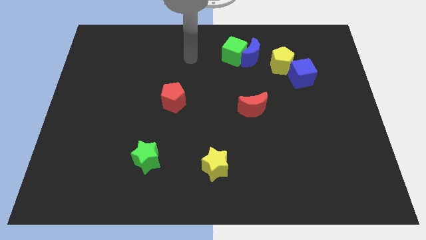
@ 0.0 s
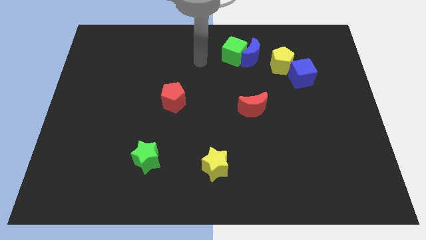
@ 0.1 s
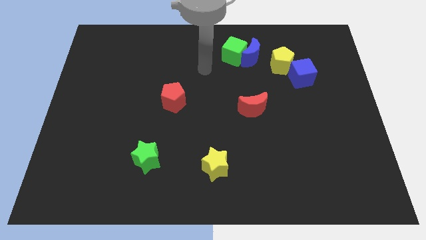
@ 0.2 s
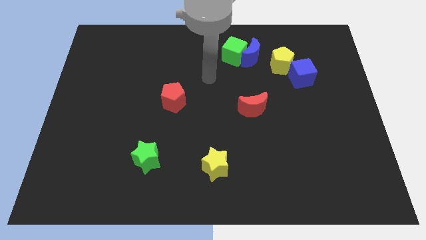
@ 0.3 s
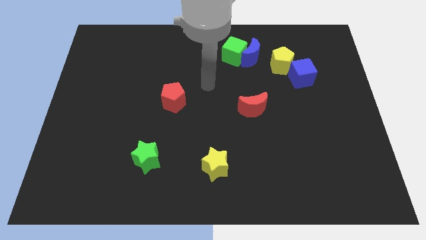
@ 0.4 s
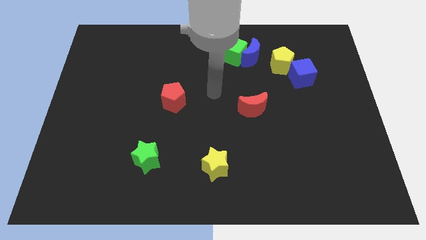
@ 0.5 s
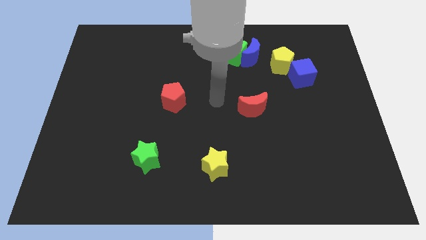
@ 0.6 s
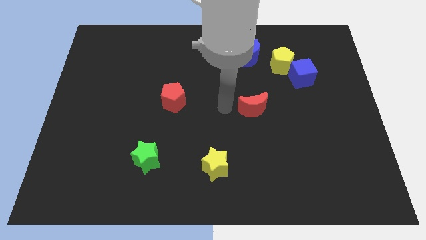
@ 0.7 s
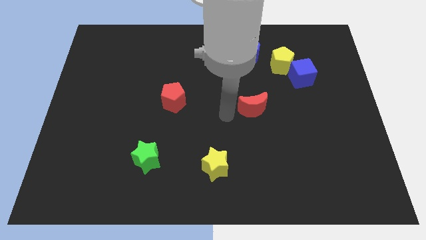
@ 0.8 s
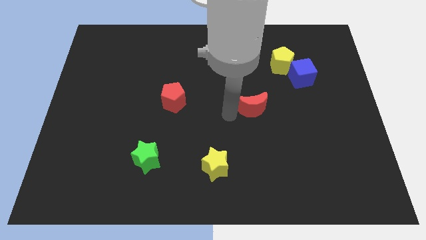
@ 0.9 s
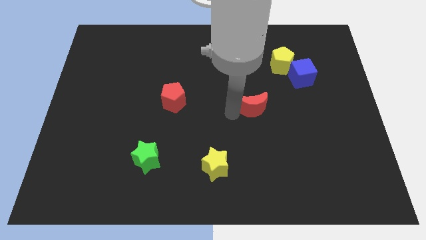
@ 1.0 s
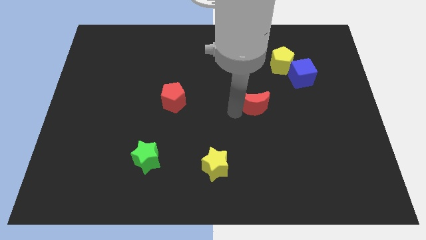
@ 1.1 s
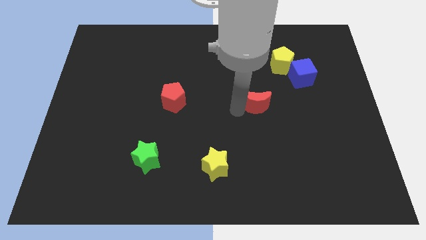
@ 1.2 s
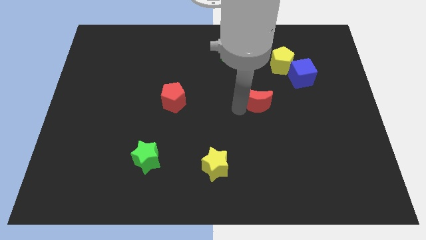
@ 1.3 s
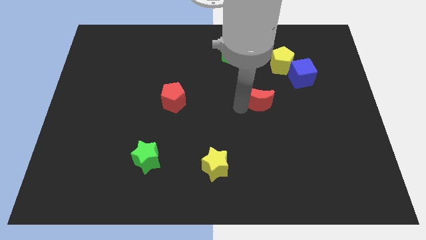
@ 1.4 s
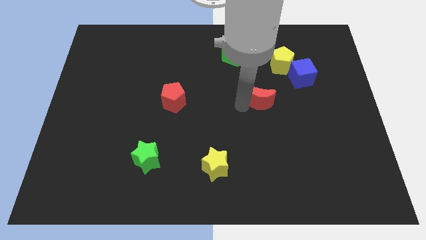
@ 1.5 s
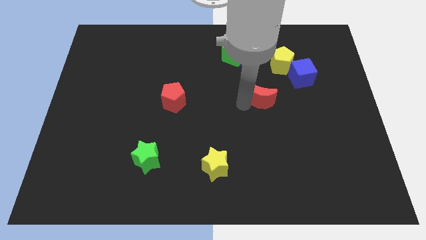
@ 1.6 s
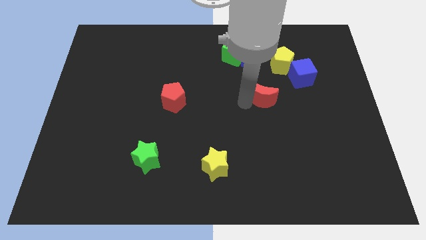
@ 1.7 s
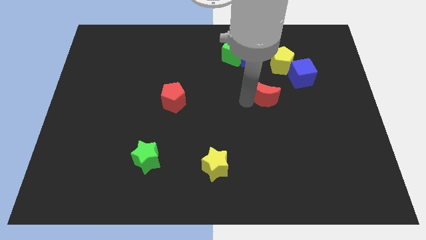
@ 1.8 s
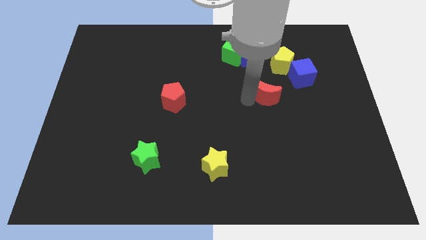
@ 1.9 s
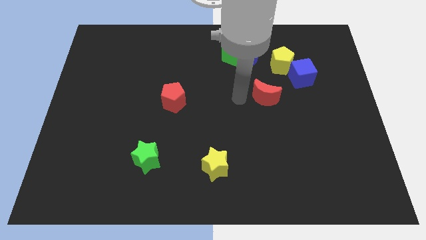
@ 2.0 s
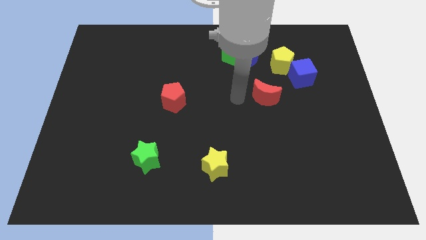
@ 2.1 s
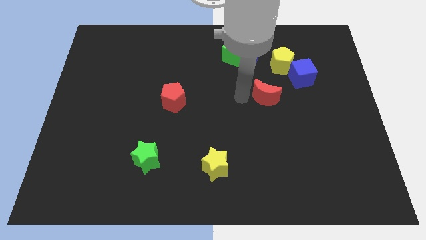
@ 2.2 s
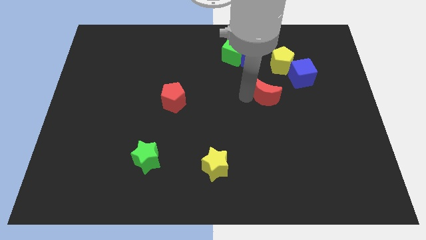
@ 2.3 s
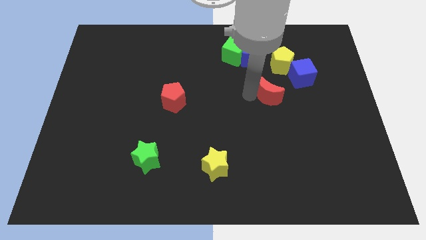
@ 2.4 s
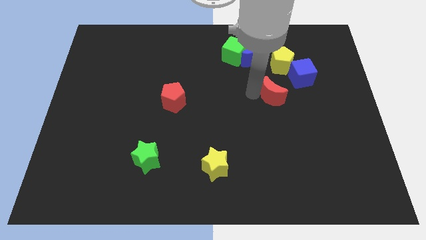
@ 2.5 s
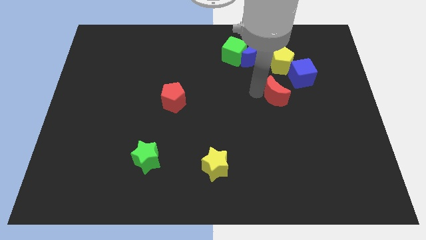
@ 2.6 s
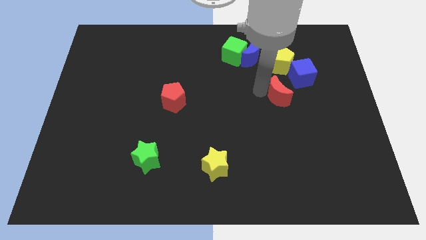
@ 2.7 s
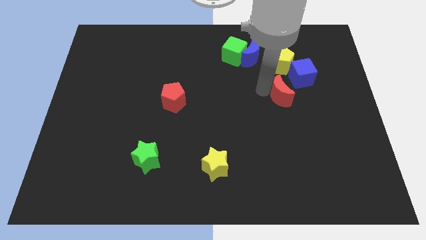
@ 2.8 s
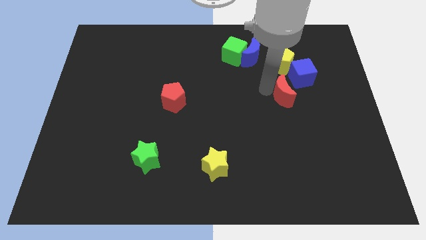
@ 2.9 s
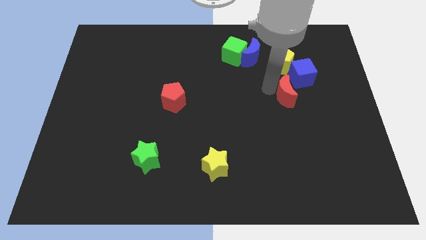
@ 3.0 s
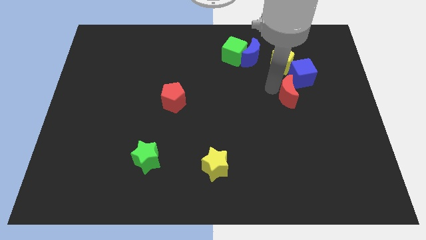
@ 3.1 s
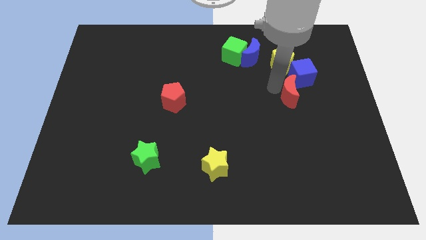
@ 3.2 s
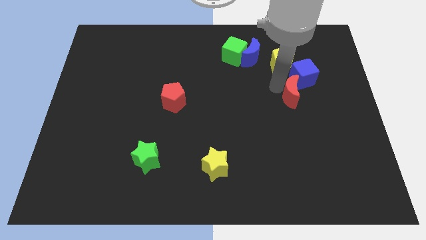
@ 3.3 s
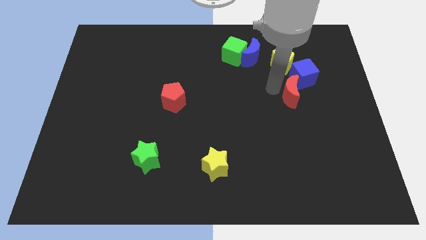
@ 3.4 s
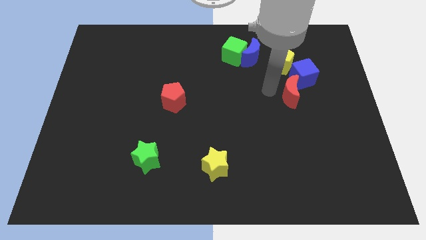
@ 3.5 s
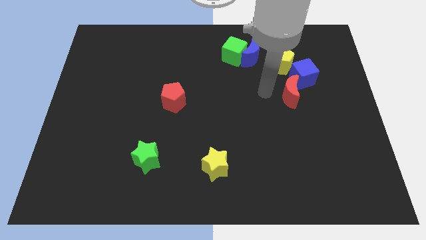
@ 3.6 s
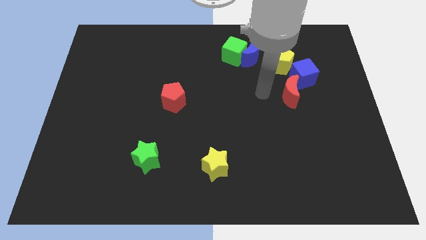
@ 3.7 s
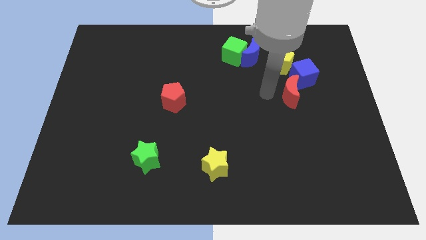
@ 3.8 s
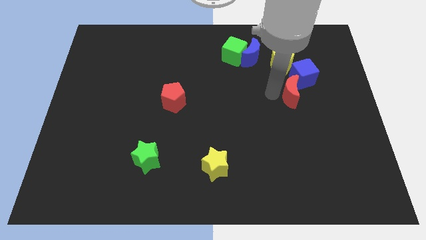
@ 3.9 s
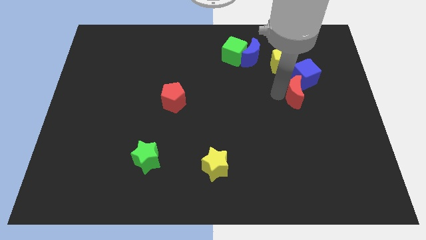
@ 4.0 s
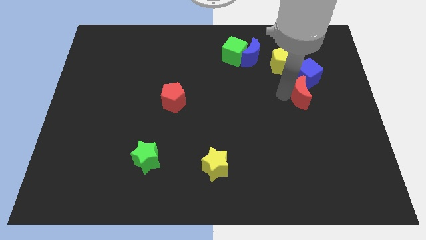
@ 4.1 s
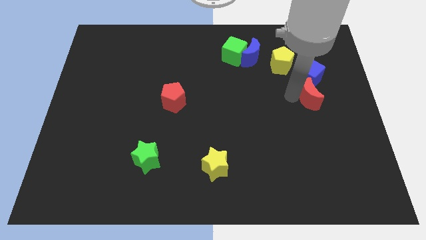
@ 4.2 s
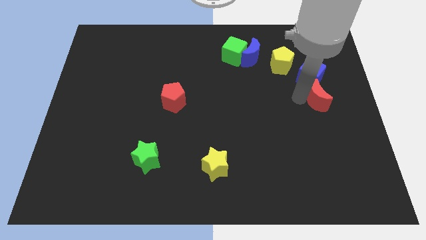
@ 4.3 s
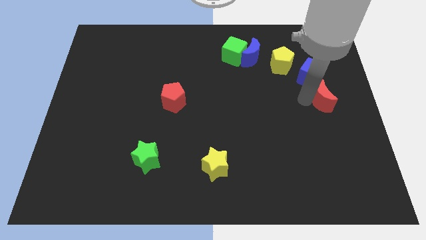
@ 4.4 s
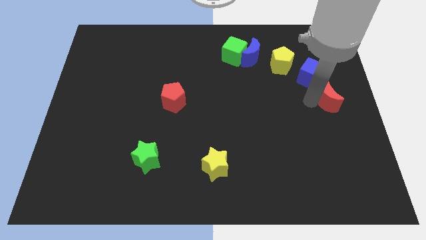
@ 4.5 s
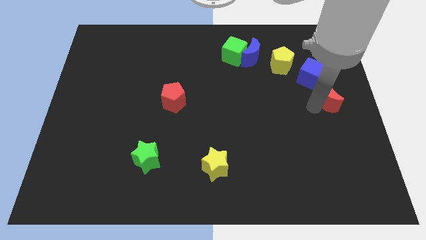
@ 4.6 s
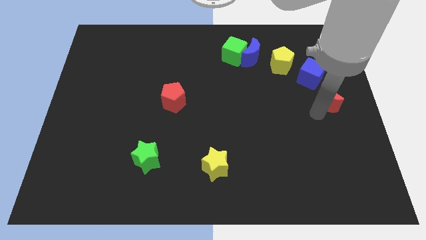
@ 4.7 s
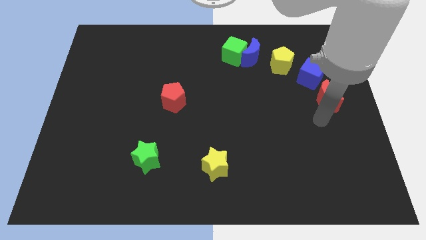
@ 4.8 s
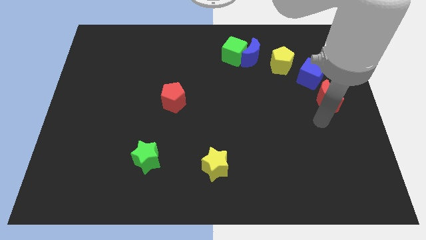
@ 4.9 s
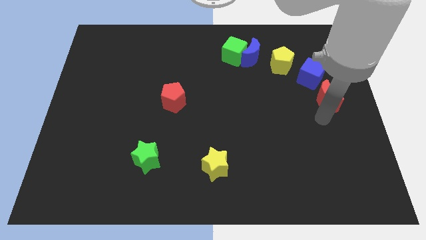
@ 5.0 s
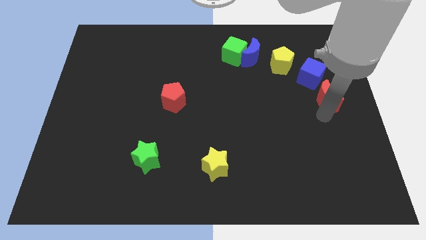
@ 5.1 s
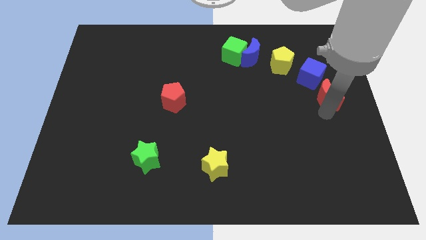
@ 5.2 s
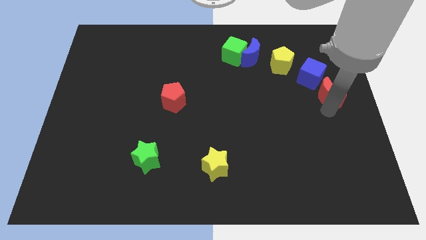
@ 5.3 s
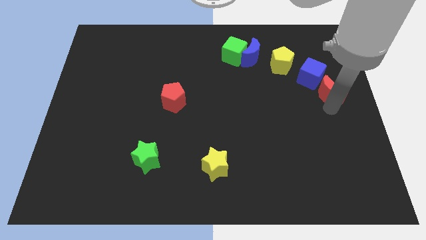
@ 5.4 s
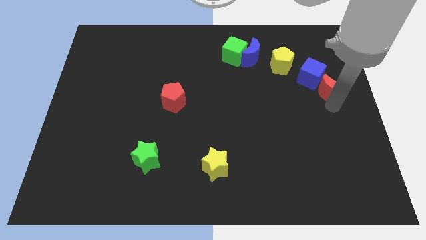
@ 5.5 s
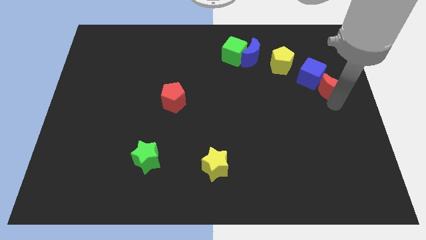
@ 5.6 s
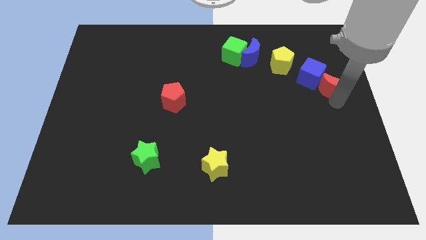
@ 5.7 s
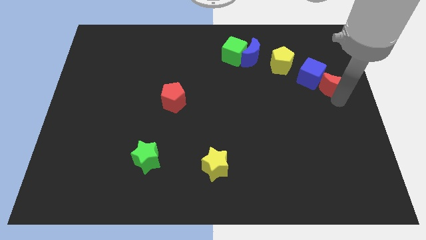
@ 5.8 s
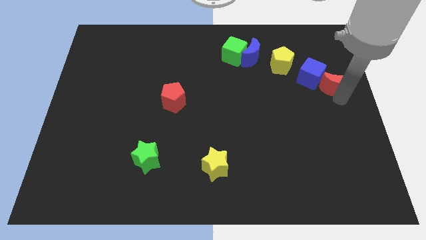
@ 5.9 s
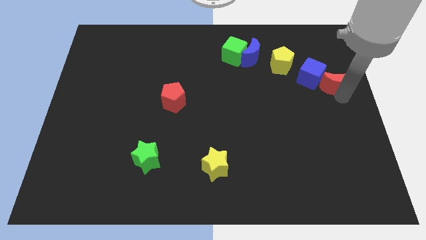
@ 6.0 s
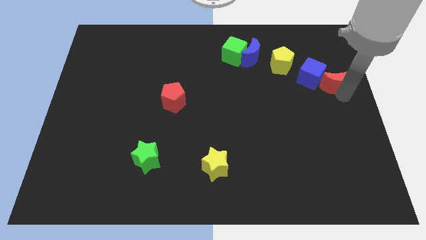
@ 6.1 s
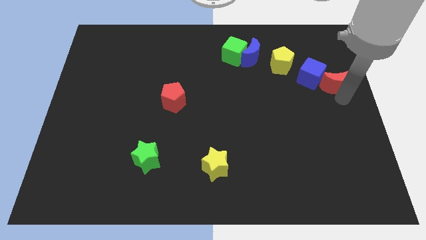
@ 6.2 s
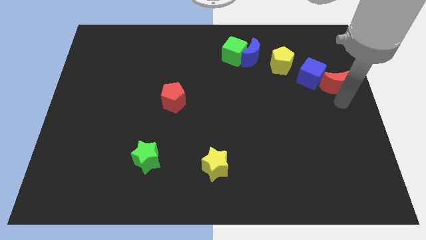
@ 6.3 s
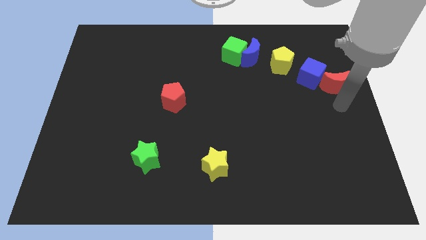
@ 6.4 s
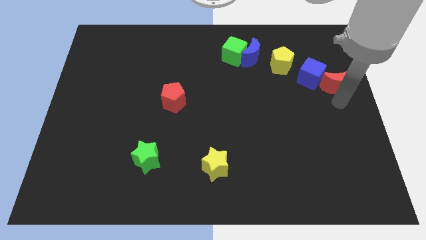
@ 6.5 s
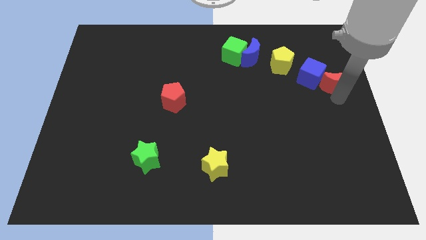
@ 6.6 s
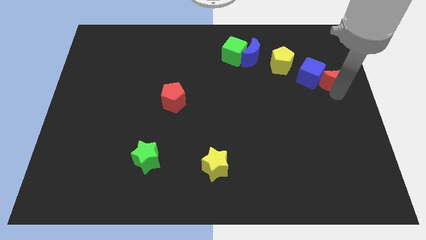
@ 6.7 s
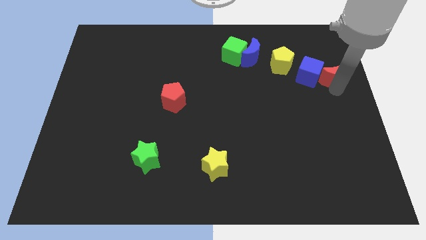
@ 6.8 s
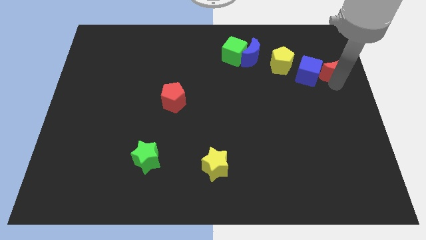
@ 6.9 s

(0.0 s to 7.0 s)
move the red moon to the top right of the blue cube
